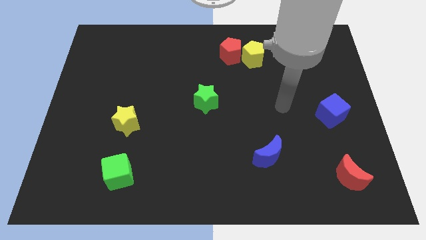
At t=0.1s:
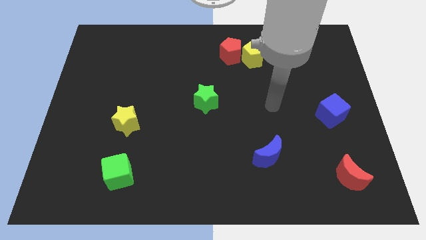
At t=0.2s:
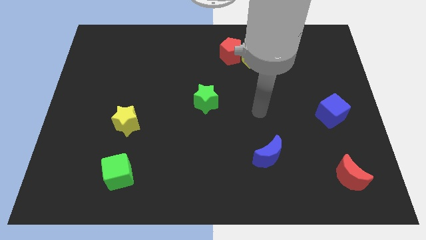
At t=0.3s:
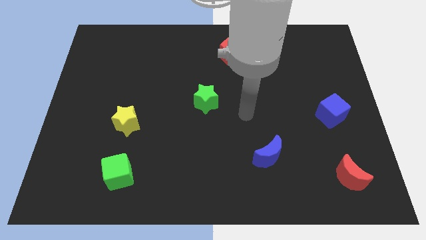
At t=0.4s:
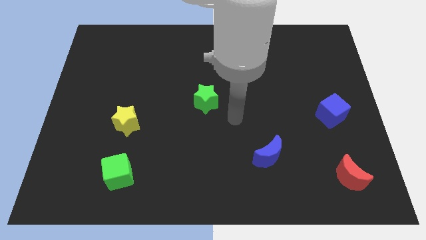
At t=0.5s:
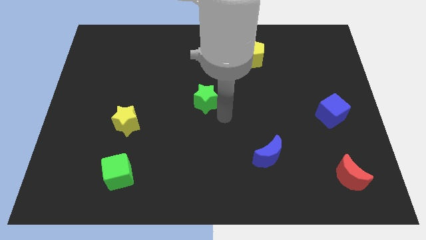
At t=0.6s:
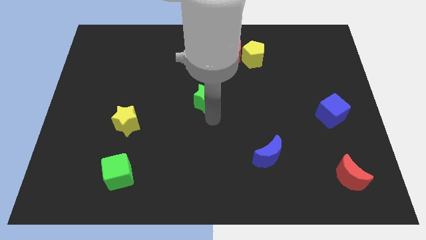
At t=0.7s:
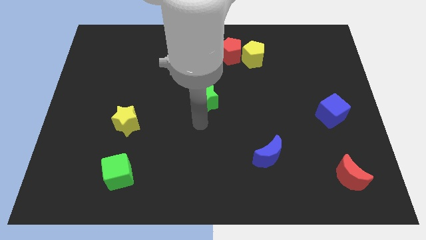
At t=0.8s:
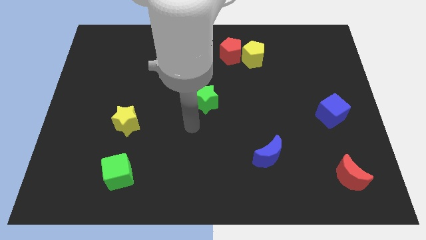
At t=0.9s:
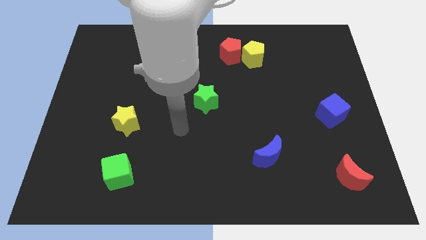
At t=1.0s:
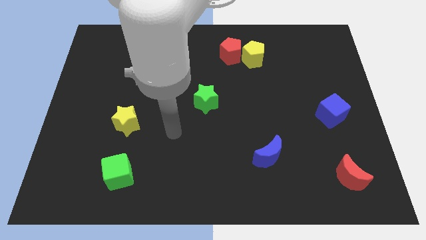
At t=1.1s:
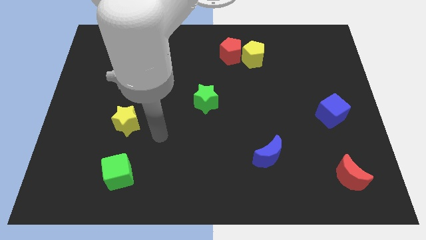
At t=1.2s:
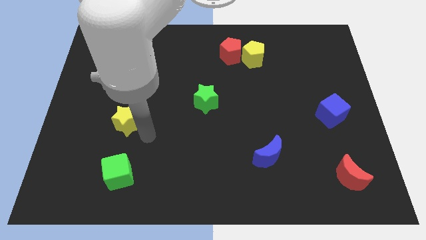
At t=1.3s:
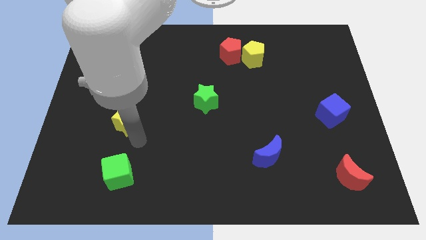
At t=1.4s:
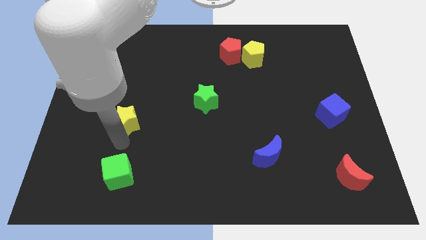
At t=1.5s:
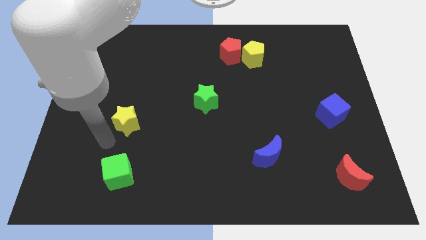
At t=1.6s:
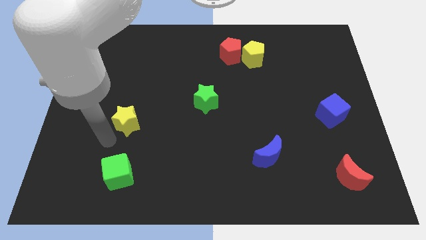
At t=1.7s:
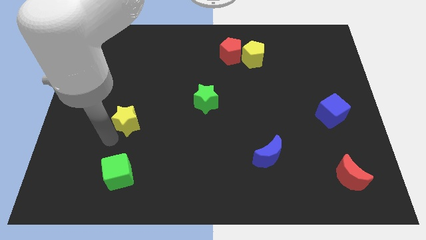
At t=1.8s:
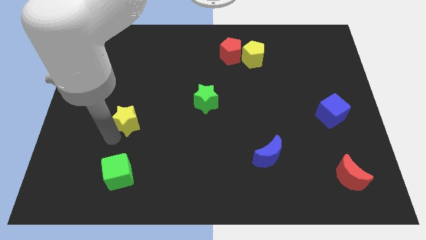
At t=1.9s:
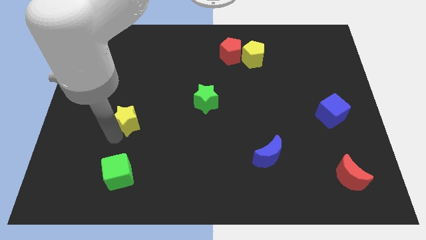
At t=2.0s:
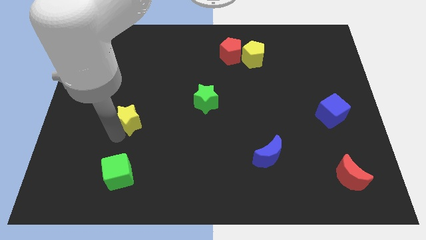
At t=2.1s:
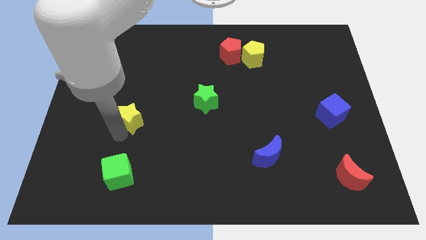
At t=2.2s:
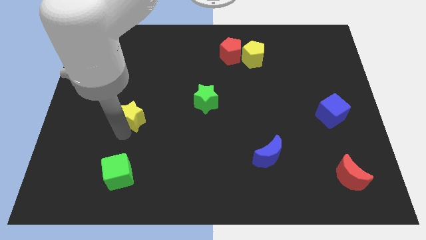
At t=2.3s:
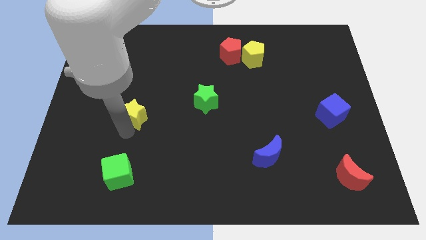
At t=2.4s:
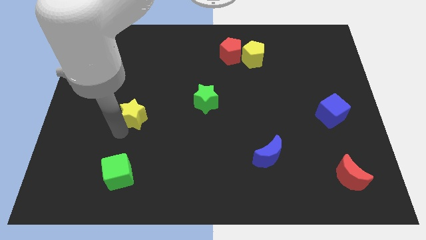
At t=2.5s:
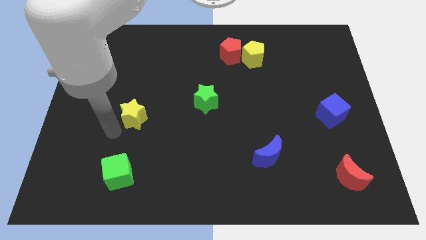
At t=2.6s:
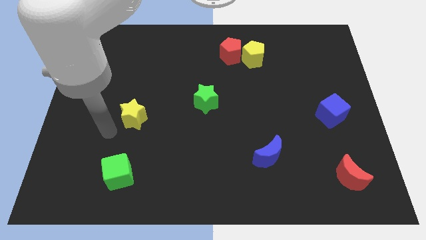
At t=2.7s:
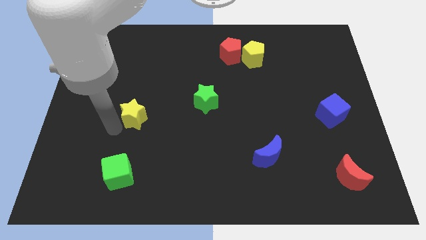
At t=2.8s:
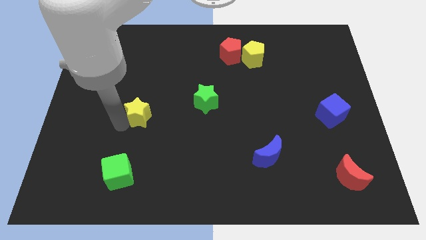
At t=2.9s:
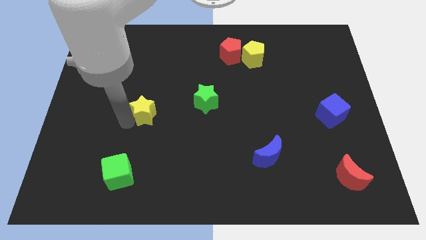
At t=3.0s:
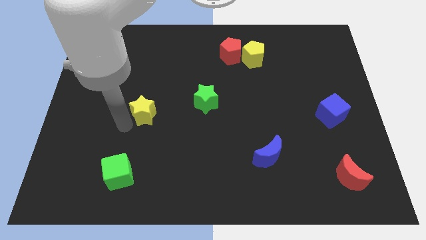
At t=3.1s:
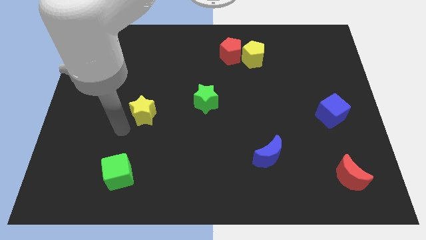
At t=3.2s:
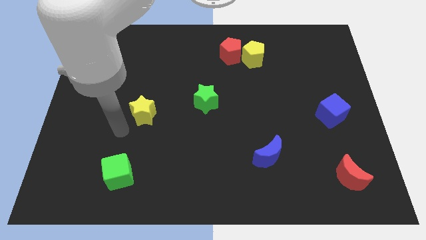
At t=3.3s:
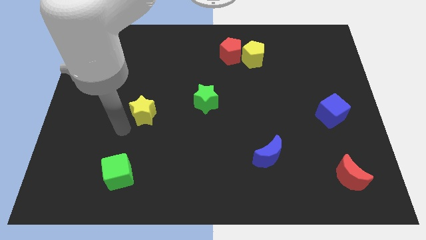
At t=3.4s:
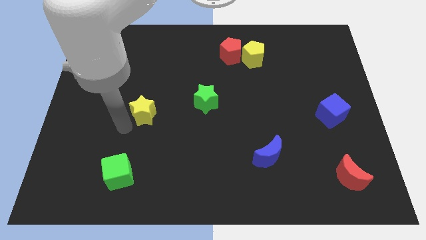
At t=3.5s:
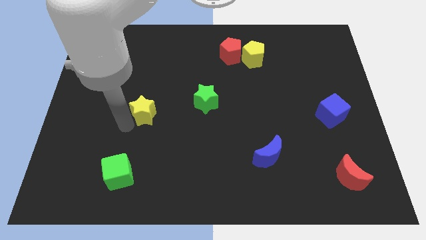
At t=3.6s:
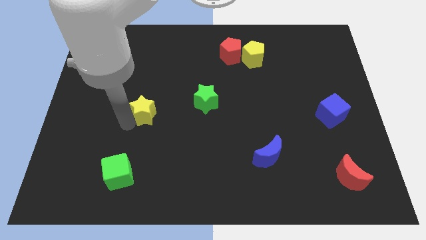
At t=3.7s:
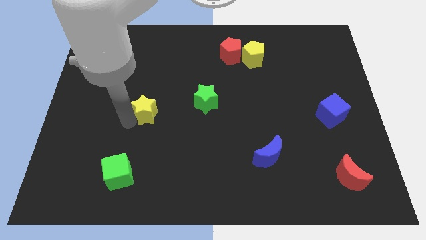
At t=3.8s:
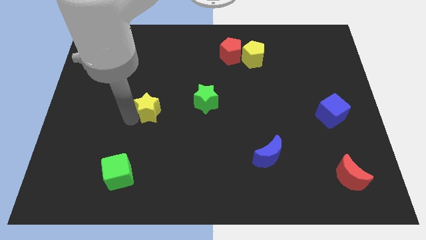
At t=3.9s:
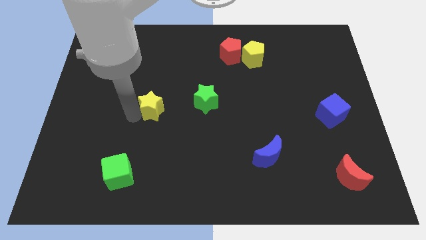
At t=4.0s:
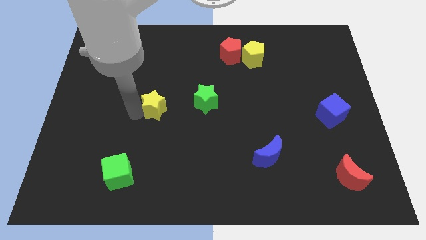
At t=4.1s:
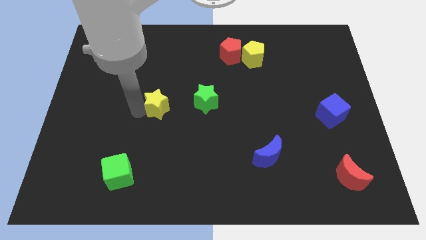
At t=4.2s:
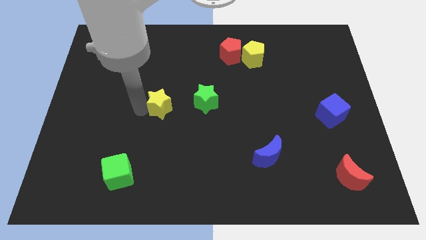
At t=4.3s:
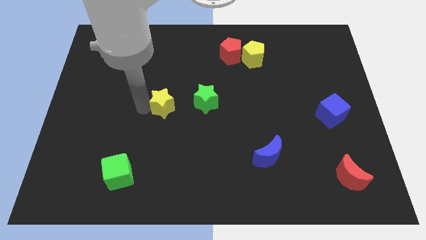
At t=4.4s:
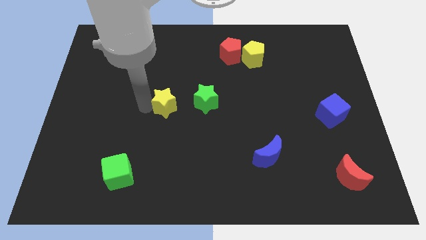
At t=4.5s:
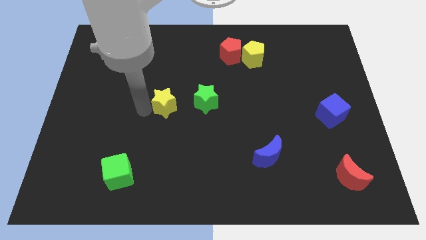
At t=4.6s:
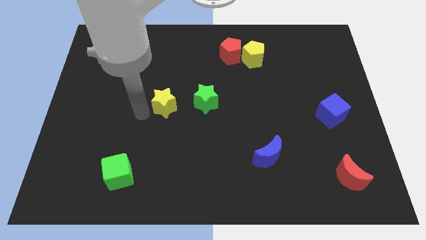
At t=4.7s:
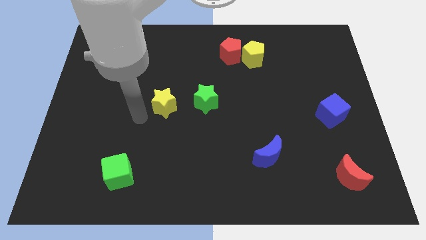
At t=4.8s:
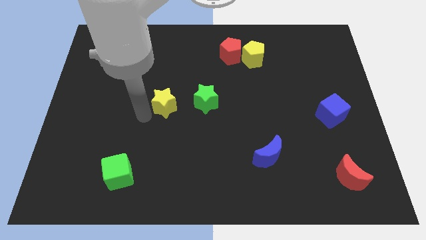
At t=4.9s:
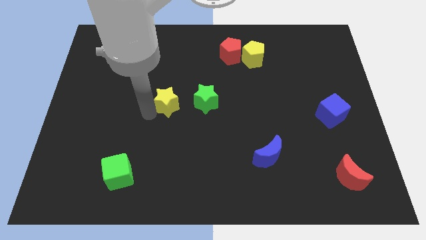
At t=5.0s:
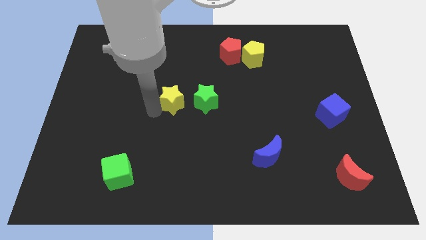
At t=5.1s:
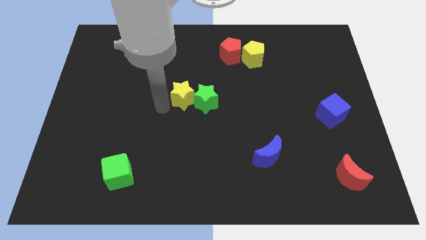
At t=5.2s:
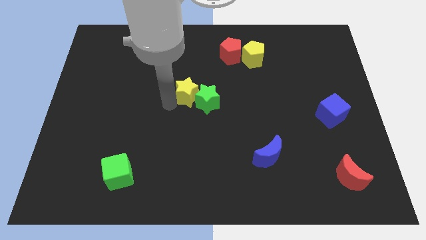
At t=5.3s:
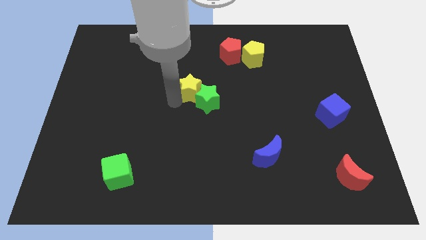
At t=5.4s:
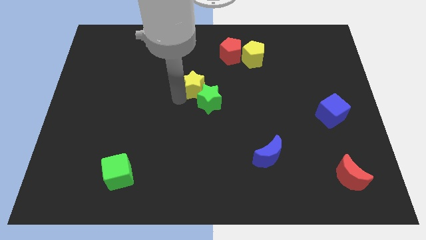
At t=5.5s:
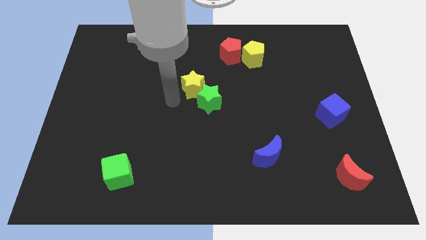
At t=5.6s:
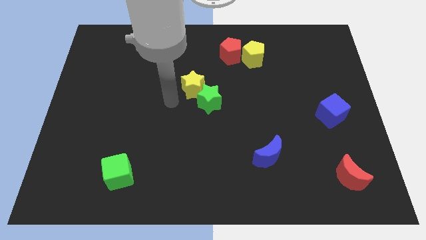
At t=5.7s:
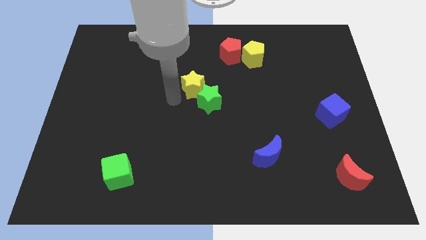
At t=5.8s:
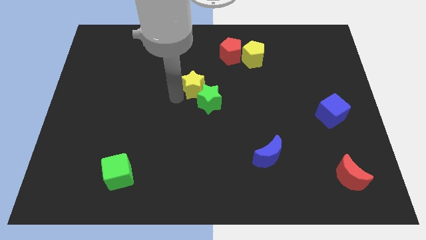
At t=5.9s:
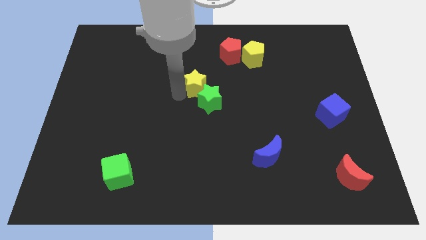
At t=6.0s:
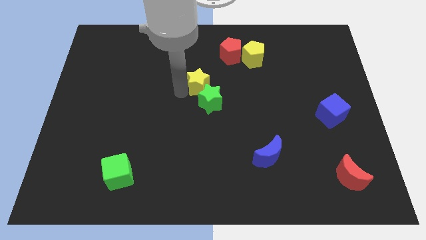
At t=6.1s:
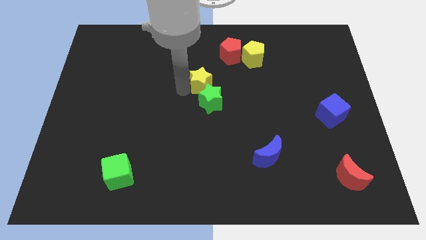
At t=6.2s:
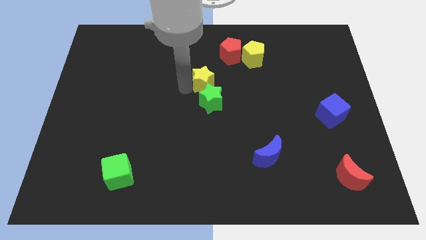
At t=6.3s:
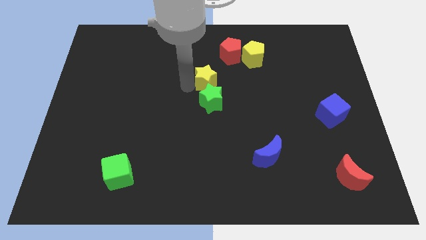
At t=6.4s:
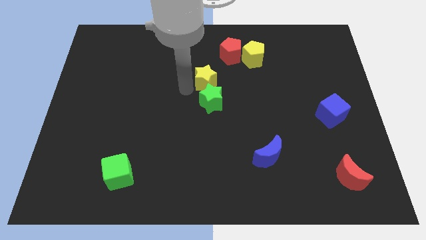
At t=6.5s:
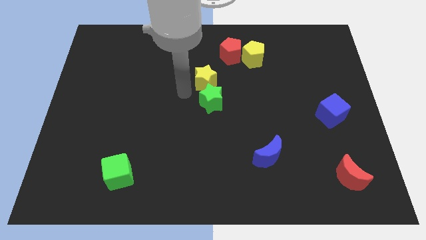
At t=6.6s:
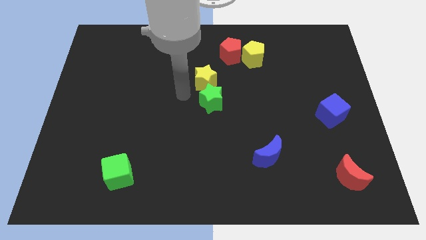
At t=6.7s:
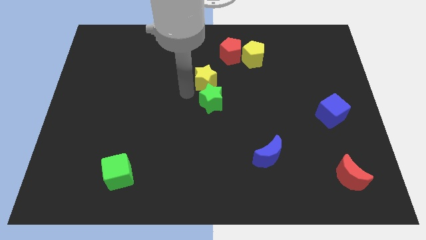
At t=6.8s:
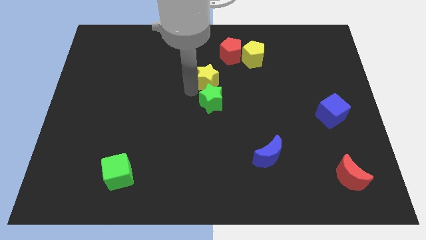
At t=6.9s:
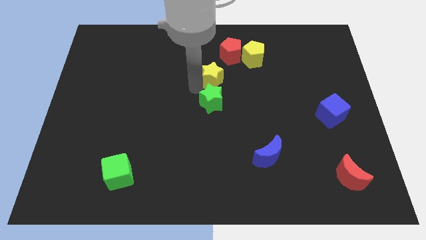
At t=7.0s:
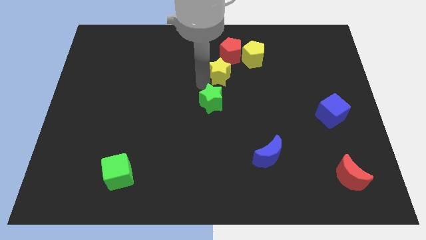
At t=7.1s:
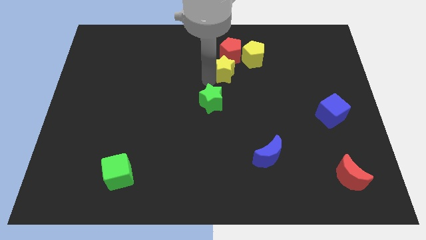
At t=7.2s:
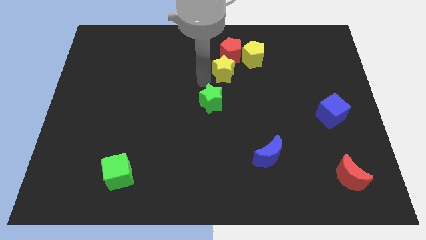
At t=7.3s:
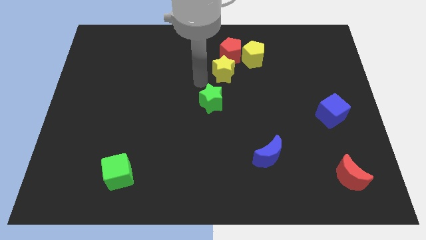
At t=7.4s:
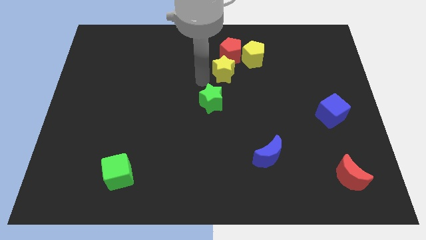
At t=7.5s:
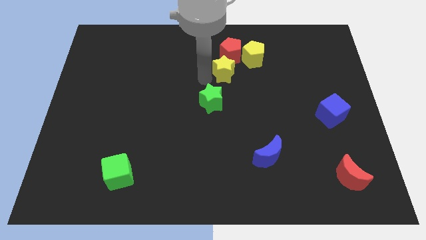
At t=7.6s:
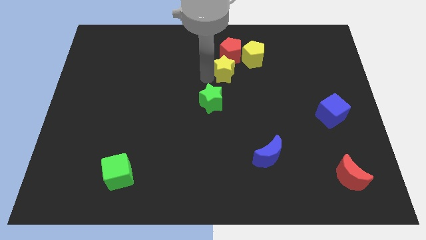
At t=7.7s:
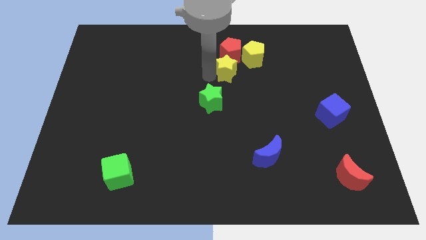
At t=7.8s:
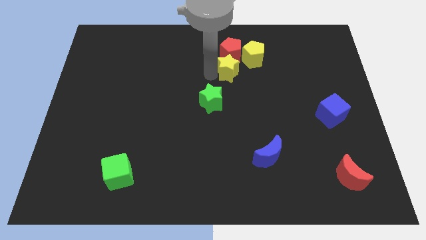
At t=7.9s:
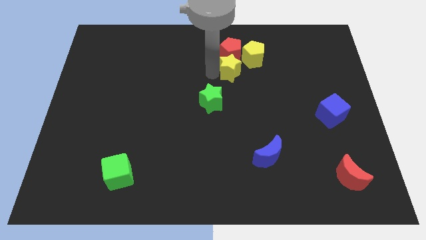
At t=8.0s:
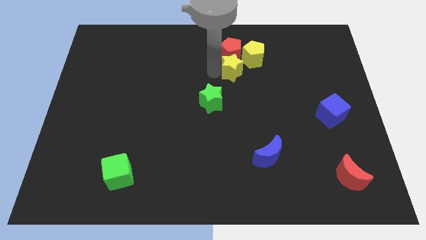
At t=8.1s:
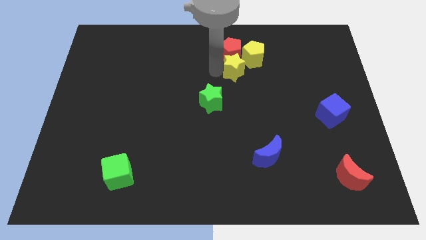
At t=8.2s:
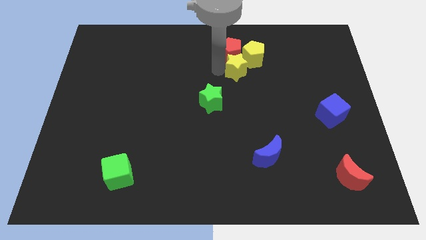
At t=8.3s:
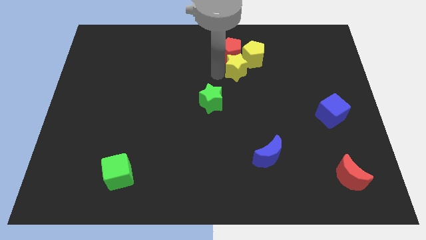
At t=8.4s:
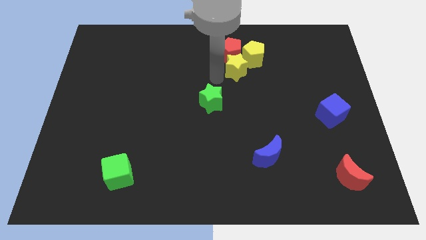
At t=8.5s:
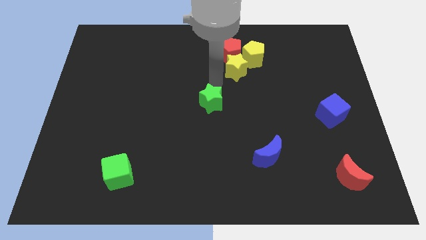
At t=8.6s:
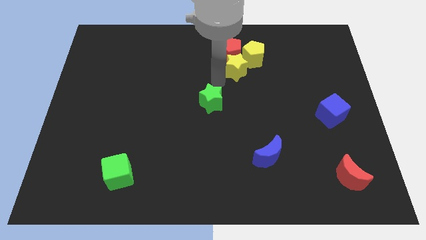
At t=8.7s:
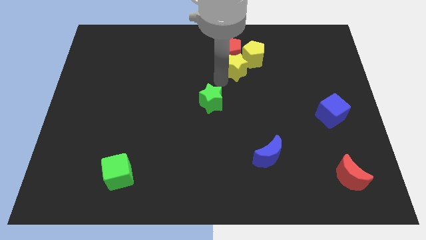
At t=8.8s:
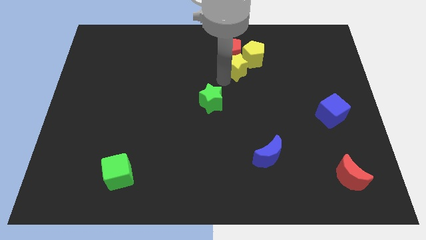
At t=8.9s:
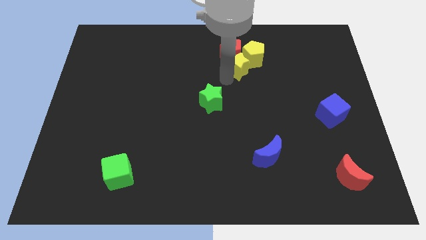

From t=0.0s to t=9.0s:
push the yellow star towards the yellow pentagon
